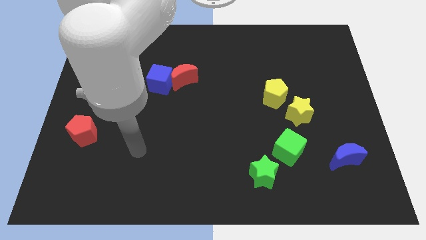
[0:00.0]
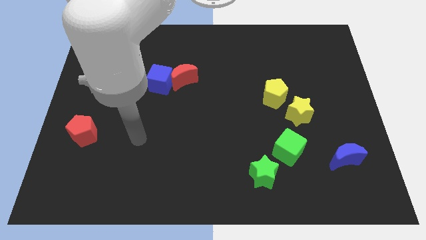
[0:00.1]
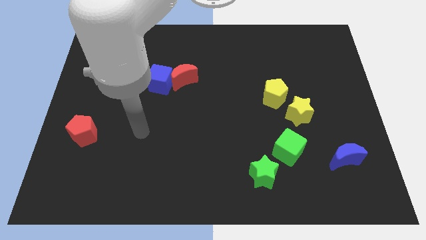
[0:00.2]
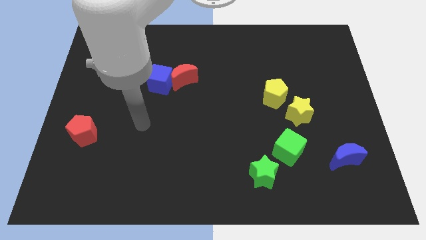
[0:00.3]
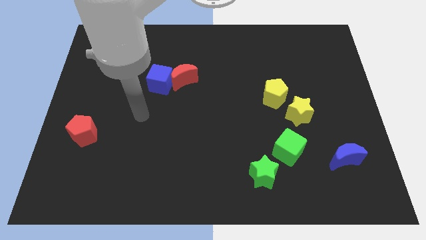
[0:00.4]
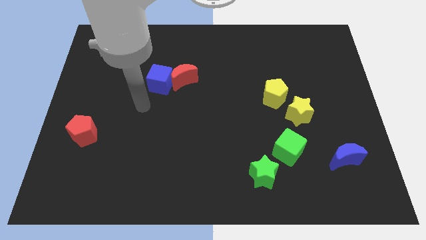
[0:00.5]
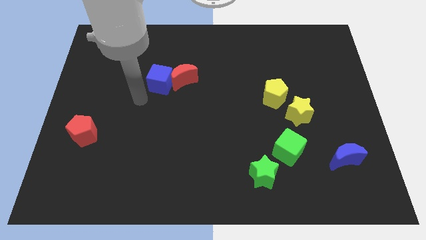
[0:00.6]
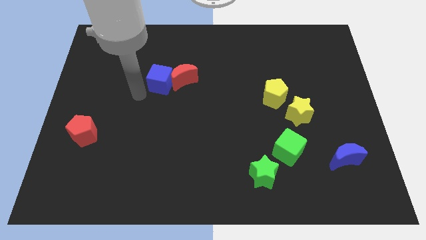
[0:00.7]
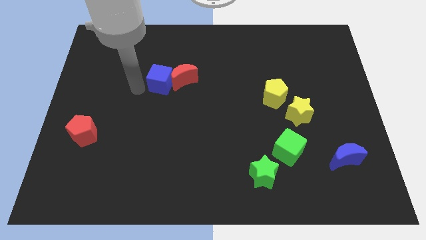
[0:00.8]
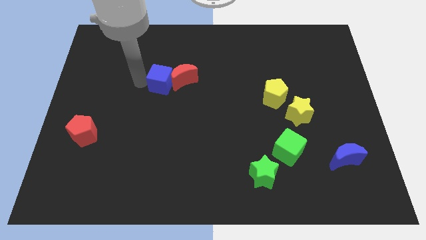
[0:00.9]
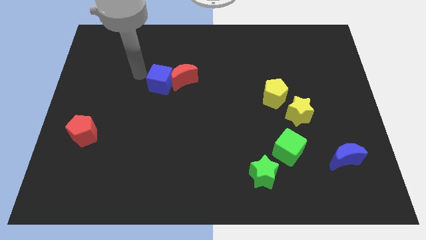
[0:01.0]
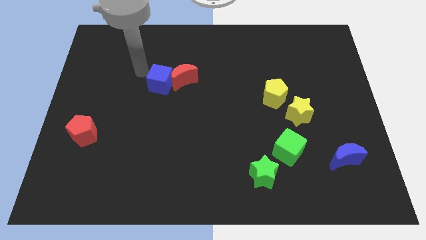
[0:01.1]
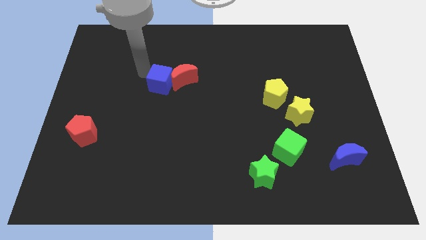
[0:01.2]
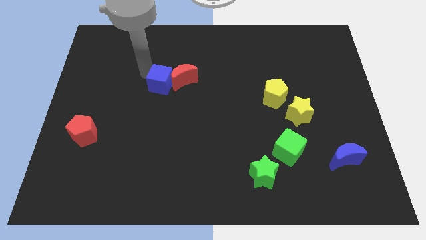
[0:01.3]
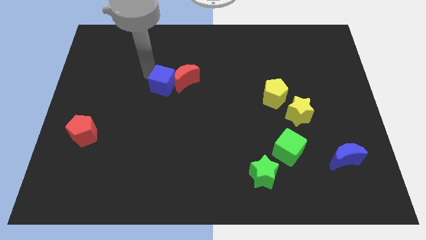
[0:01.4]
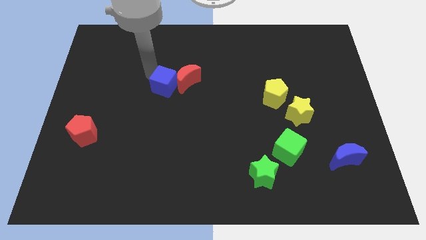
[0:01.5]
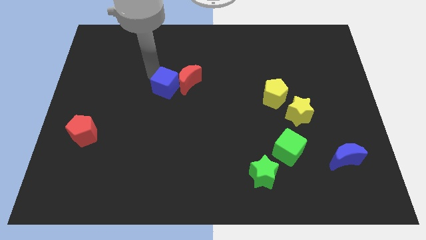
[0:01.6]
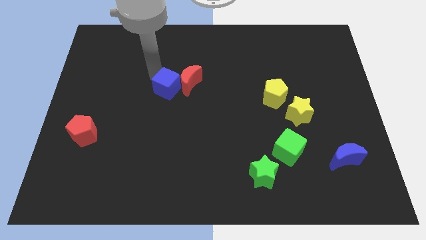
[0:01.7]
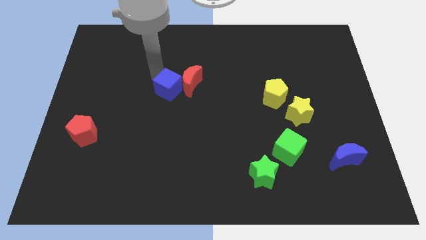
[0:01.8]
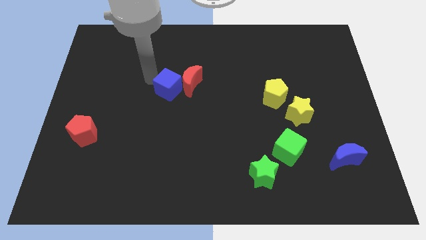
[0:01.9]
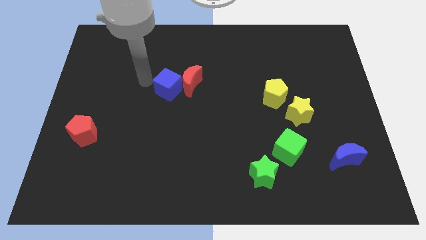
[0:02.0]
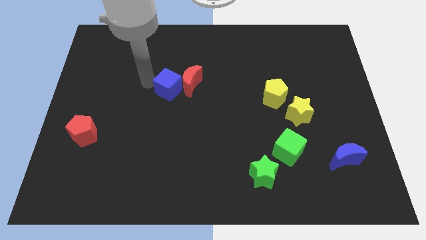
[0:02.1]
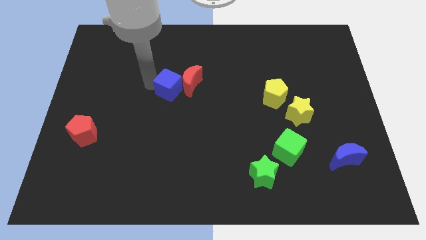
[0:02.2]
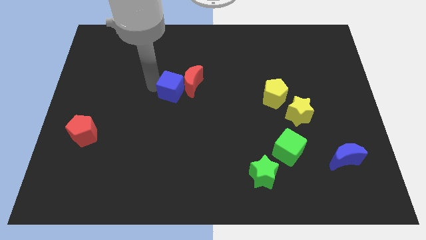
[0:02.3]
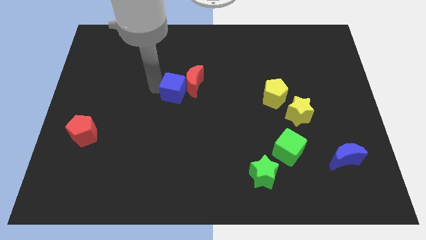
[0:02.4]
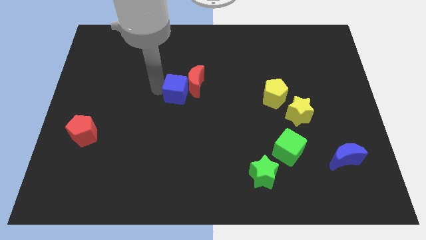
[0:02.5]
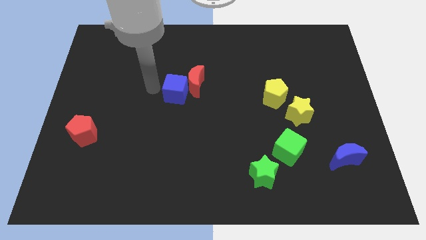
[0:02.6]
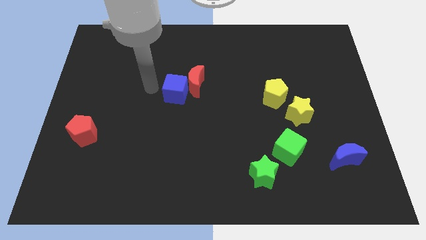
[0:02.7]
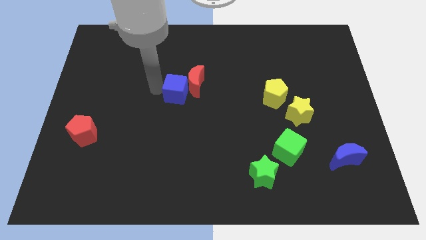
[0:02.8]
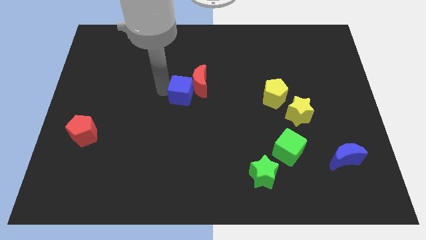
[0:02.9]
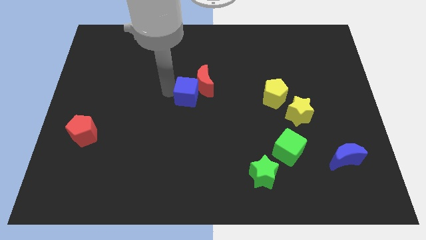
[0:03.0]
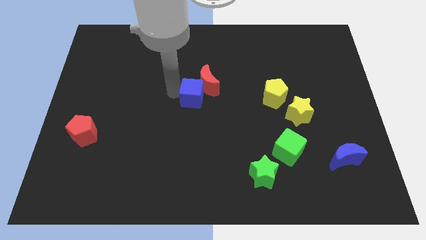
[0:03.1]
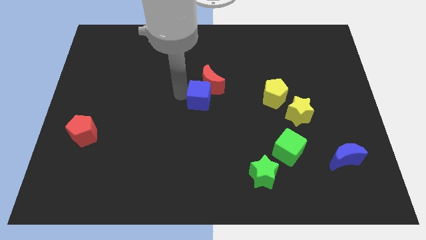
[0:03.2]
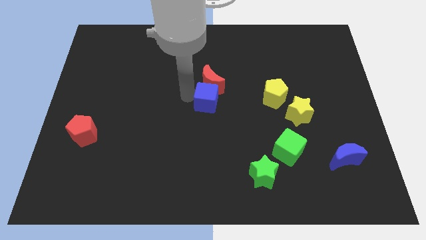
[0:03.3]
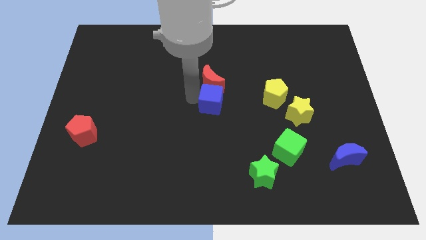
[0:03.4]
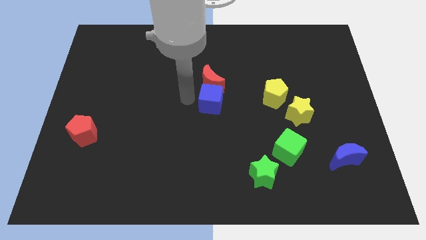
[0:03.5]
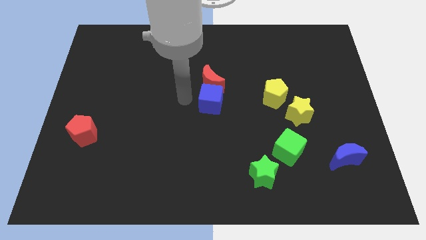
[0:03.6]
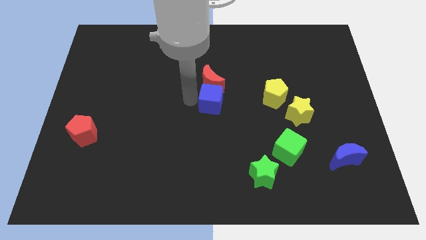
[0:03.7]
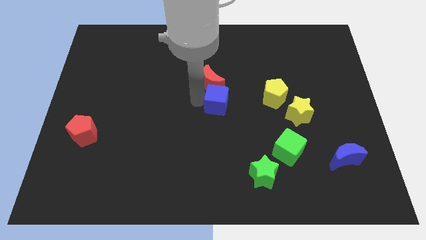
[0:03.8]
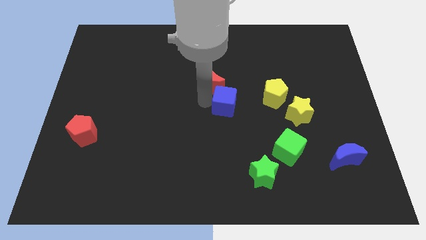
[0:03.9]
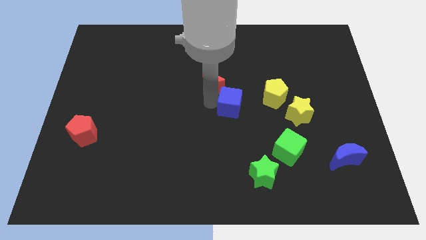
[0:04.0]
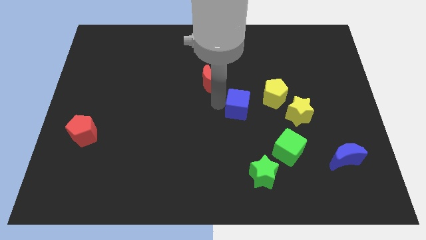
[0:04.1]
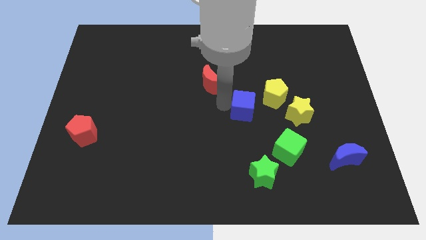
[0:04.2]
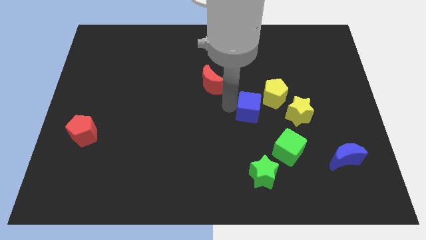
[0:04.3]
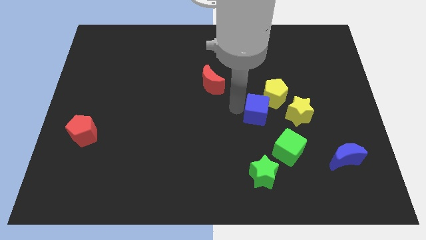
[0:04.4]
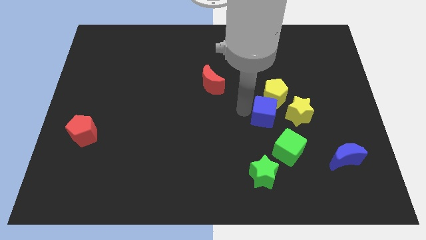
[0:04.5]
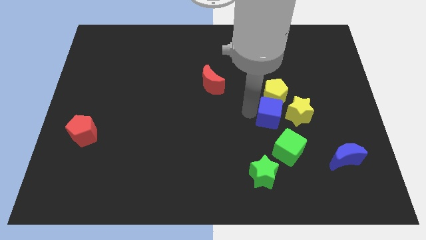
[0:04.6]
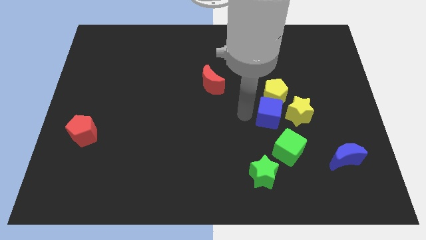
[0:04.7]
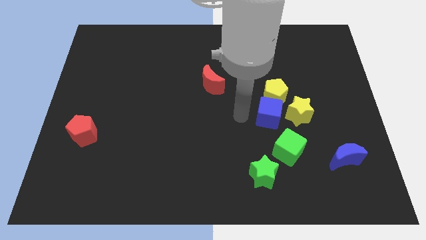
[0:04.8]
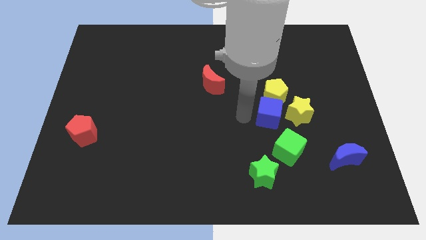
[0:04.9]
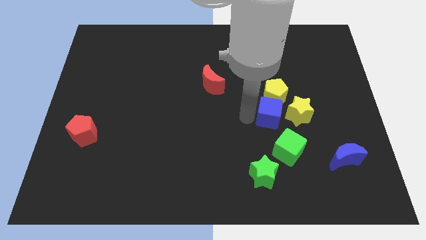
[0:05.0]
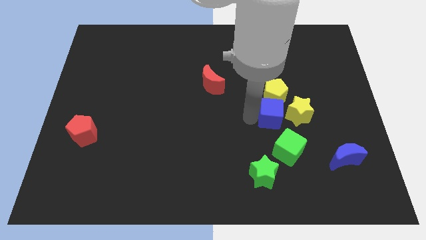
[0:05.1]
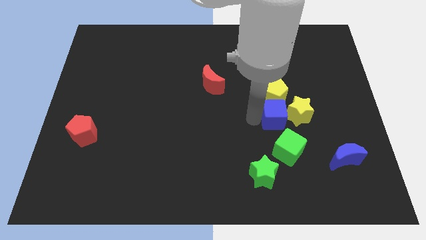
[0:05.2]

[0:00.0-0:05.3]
put the blue cube to the yellow star

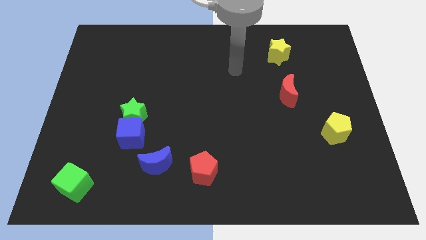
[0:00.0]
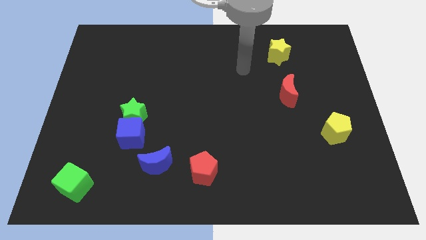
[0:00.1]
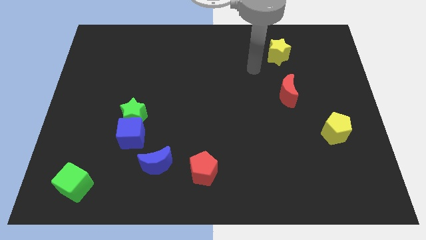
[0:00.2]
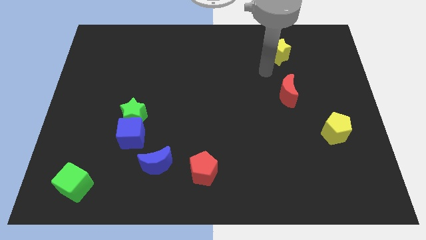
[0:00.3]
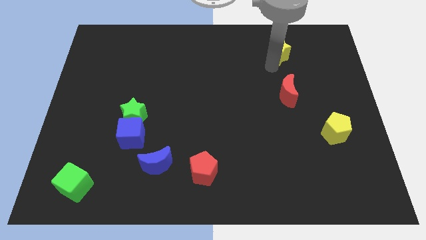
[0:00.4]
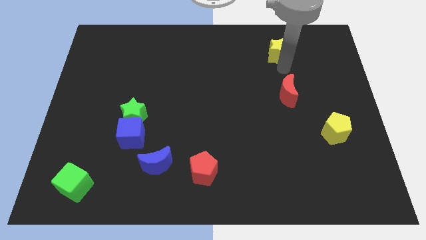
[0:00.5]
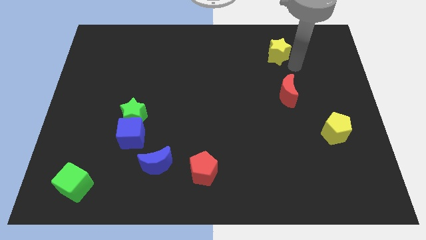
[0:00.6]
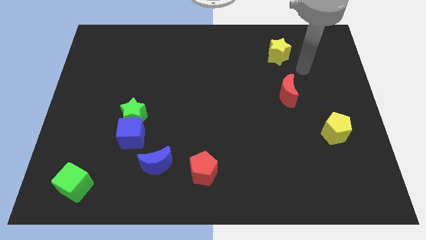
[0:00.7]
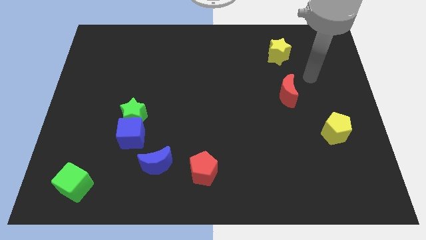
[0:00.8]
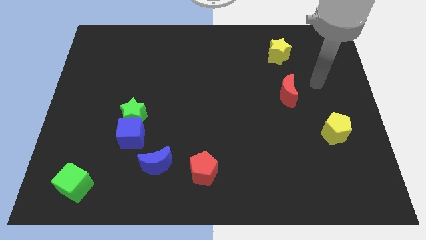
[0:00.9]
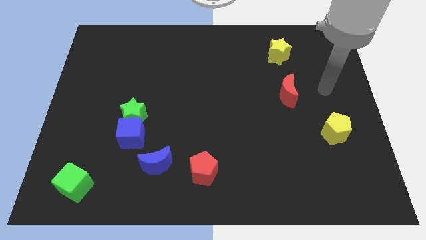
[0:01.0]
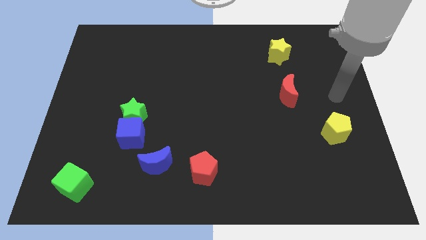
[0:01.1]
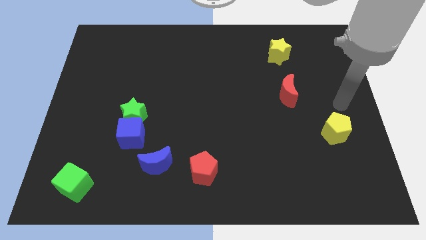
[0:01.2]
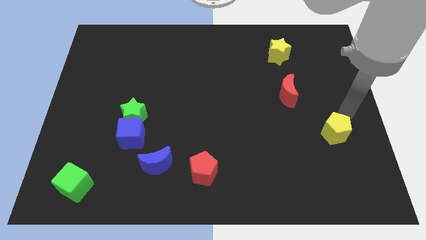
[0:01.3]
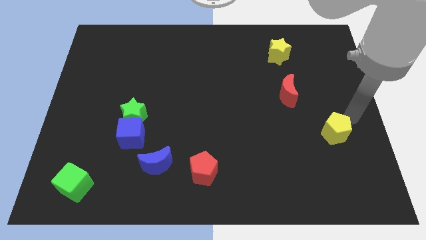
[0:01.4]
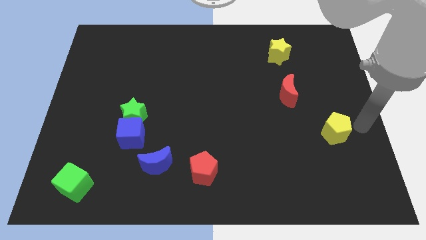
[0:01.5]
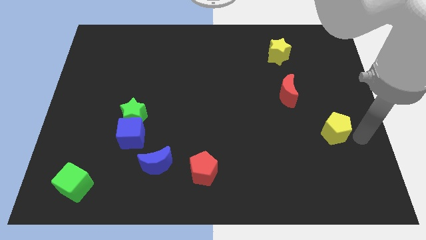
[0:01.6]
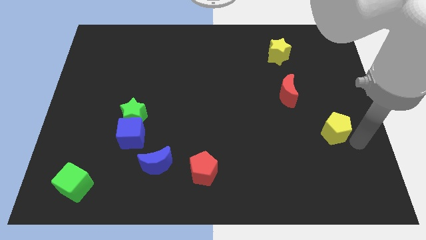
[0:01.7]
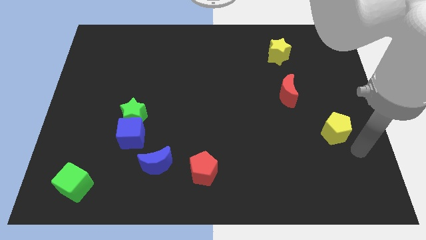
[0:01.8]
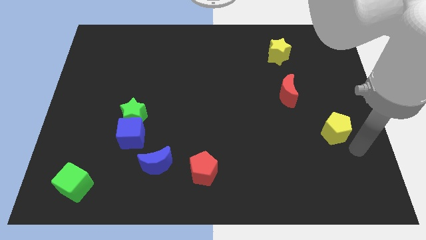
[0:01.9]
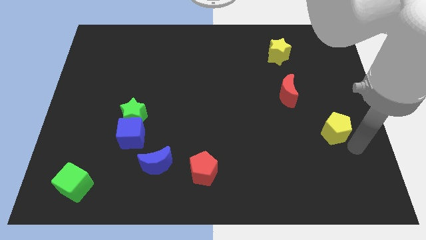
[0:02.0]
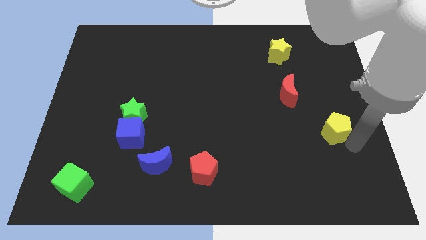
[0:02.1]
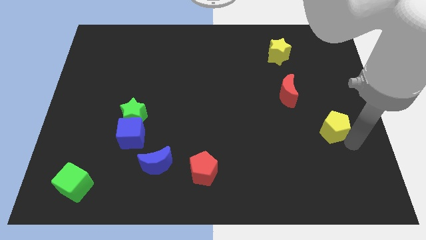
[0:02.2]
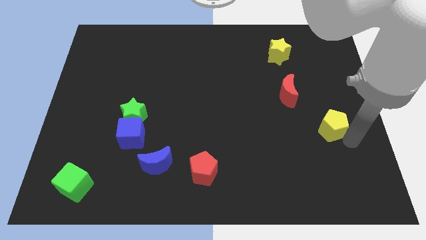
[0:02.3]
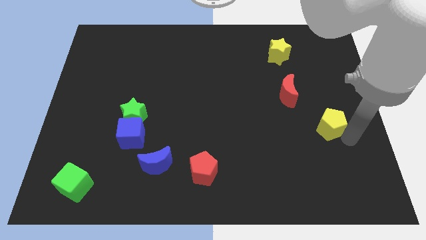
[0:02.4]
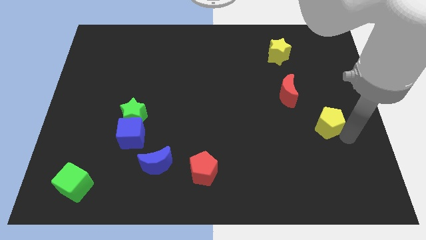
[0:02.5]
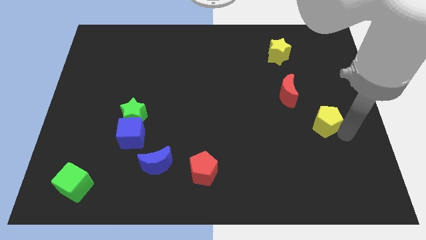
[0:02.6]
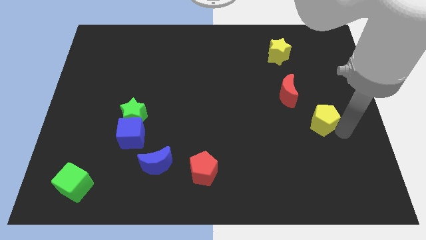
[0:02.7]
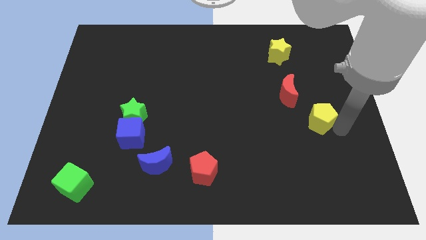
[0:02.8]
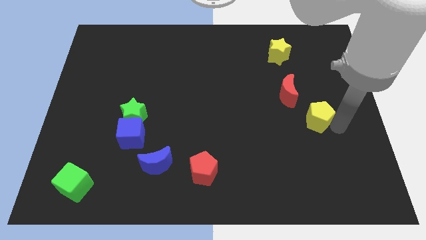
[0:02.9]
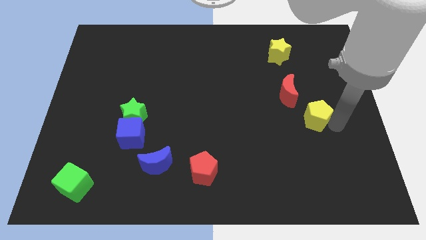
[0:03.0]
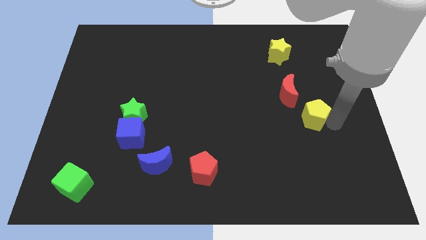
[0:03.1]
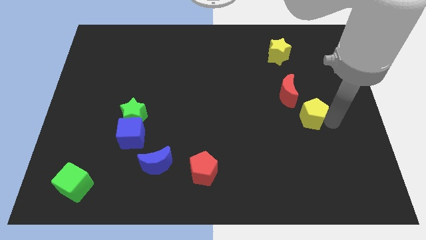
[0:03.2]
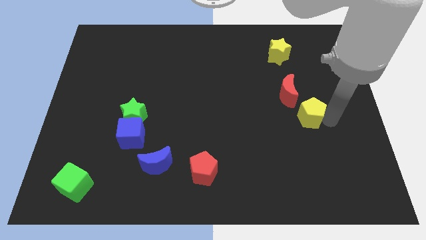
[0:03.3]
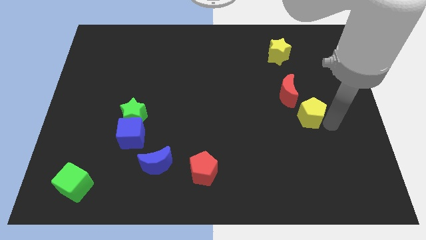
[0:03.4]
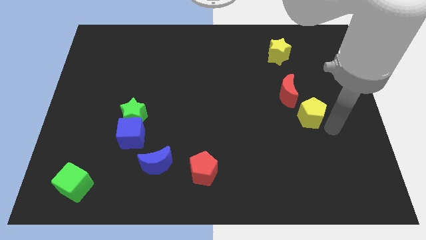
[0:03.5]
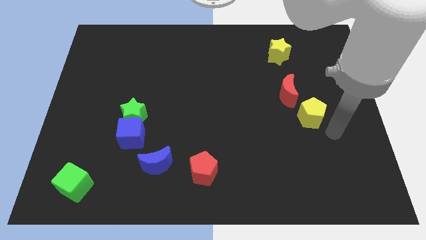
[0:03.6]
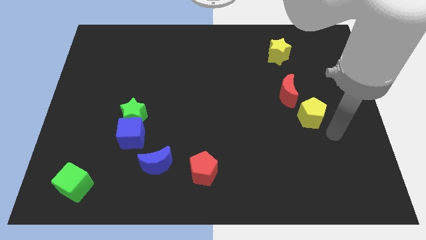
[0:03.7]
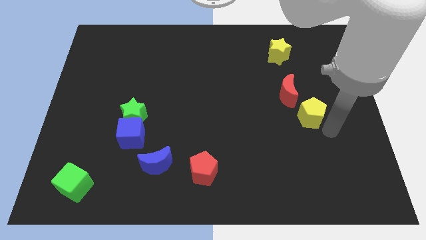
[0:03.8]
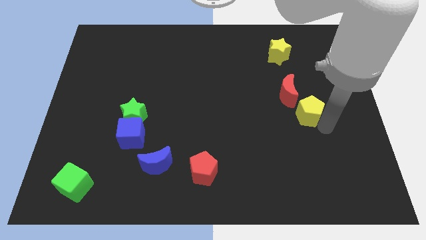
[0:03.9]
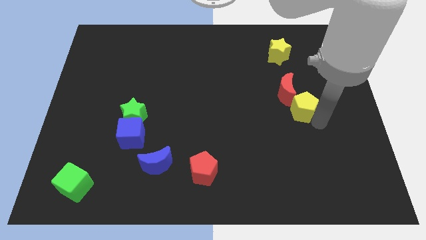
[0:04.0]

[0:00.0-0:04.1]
push the yellow pentagon close to the red moon
